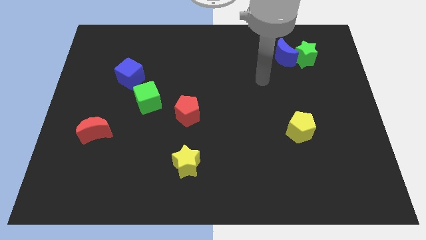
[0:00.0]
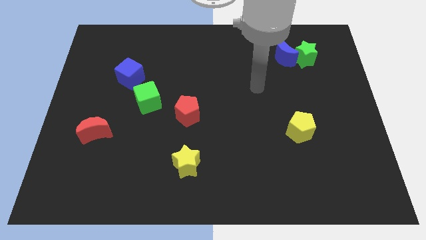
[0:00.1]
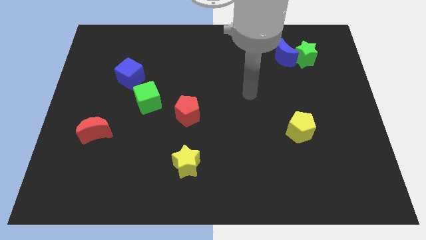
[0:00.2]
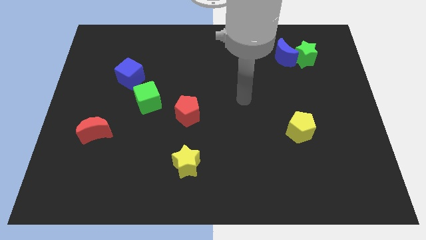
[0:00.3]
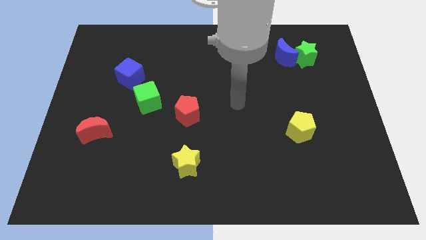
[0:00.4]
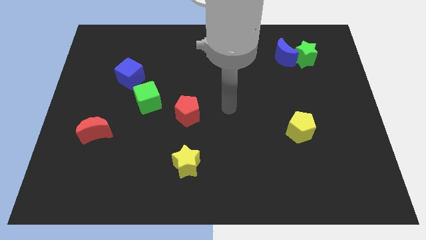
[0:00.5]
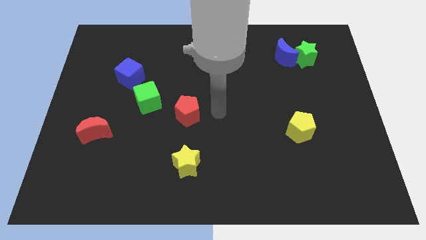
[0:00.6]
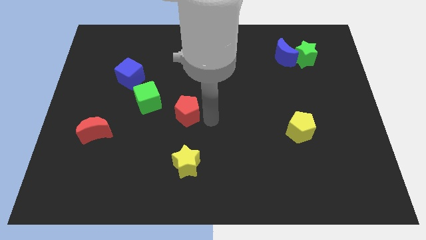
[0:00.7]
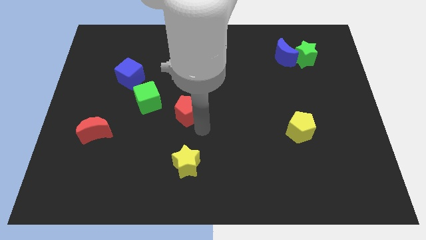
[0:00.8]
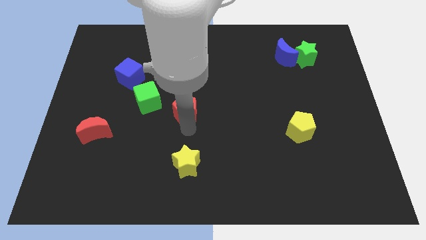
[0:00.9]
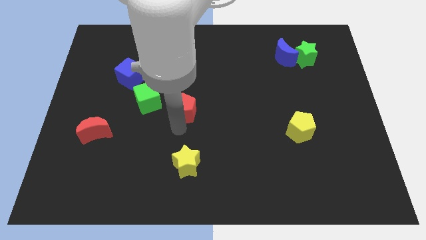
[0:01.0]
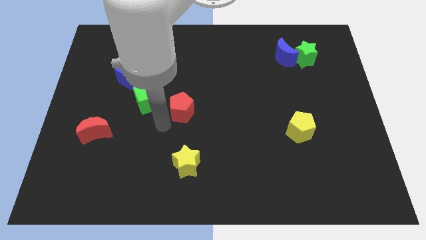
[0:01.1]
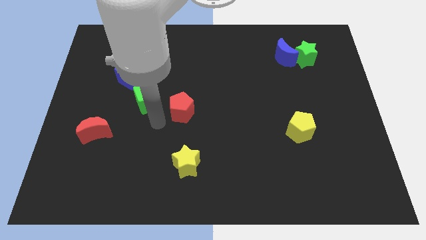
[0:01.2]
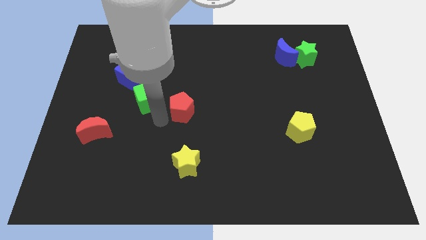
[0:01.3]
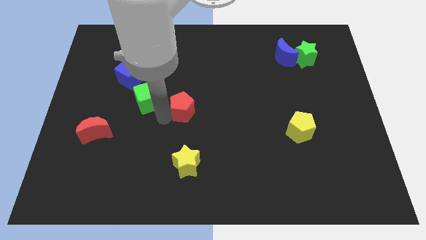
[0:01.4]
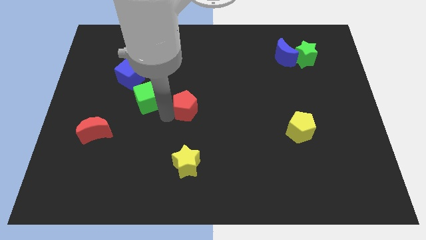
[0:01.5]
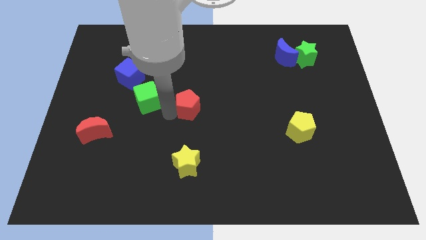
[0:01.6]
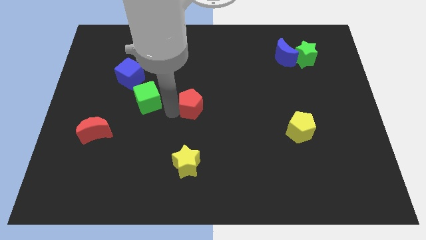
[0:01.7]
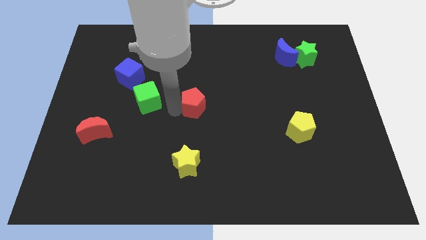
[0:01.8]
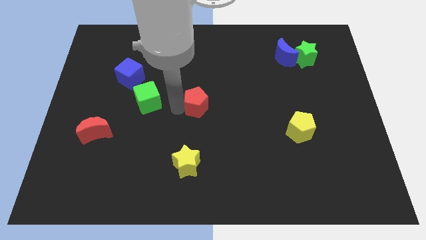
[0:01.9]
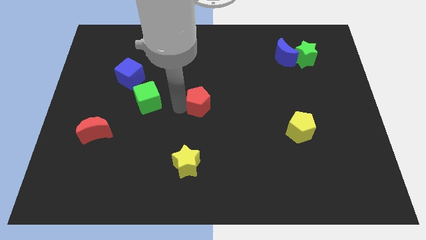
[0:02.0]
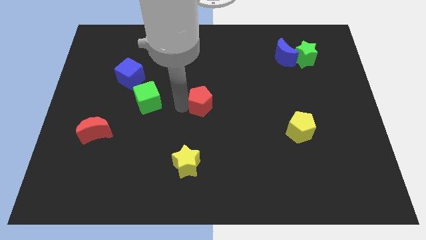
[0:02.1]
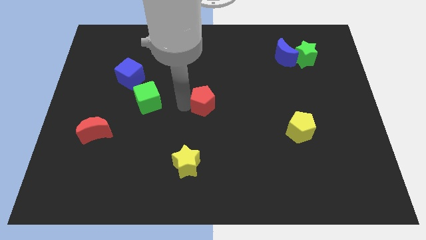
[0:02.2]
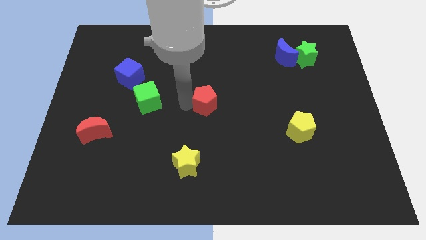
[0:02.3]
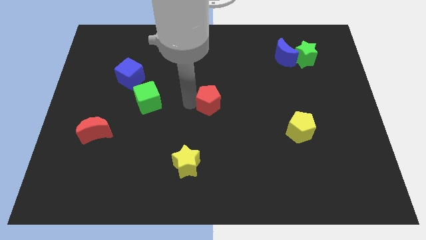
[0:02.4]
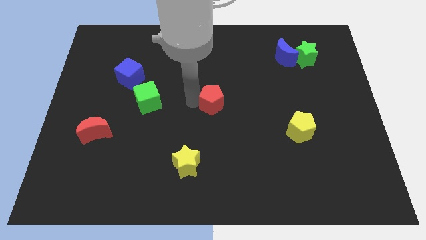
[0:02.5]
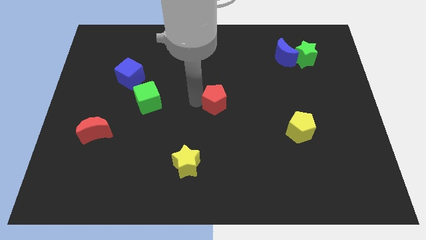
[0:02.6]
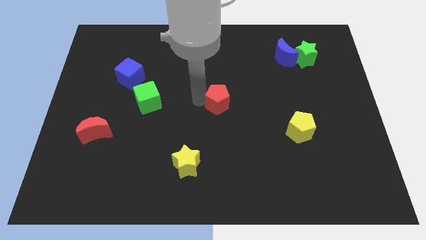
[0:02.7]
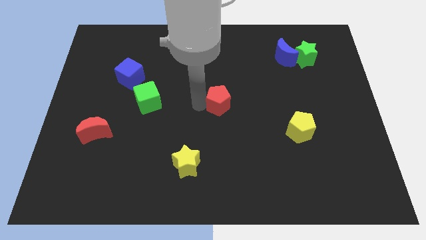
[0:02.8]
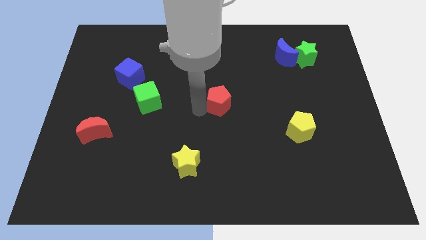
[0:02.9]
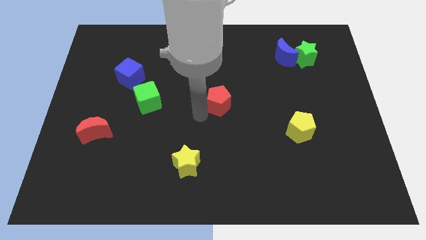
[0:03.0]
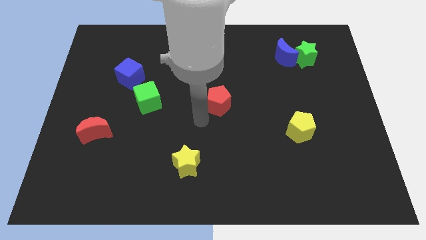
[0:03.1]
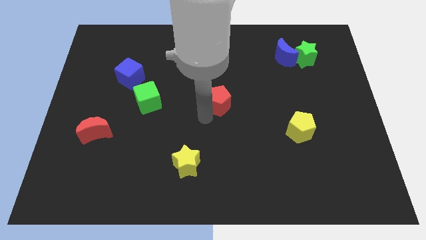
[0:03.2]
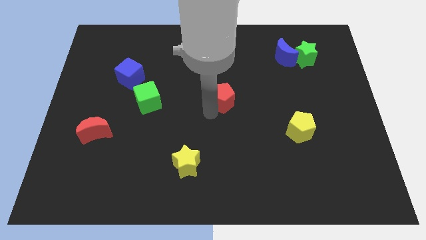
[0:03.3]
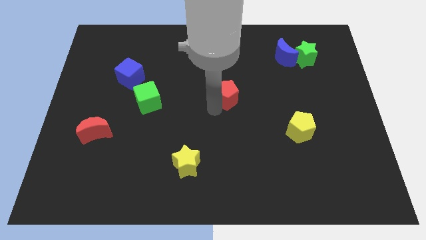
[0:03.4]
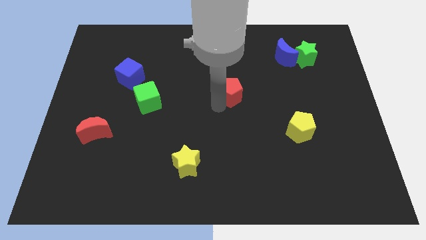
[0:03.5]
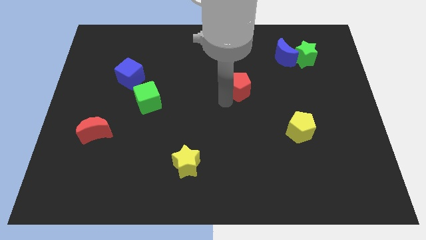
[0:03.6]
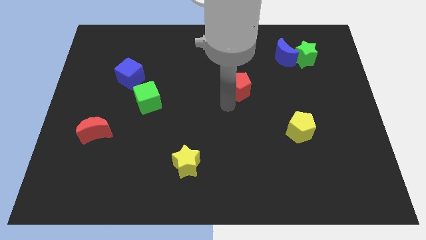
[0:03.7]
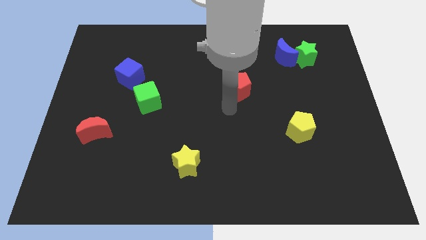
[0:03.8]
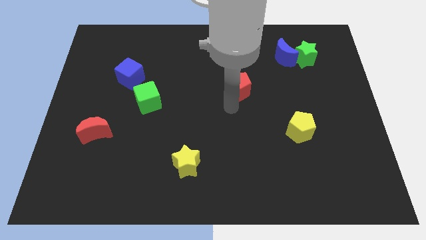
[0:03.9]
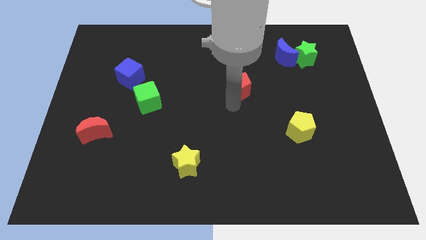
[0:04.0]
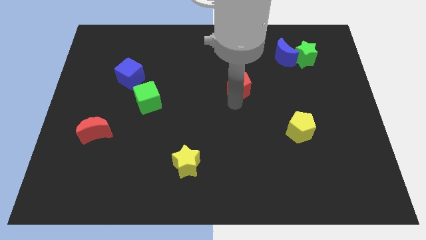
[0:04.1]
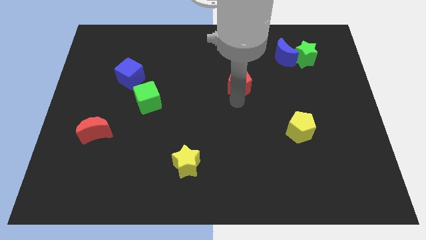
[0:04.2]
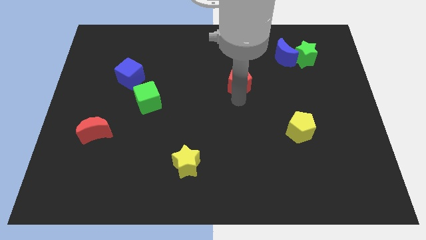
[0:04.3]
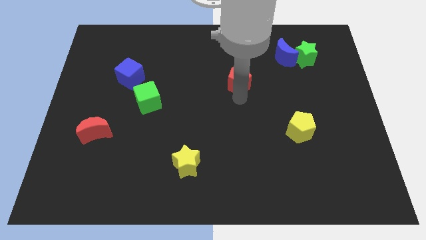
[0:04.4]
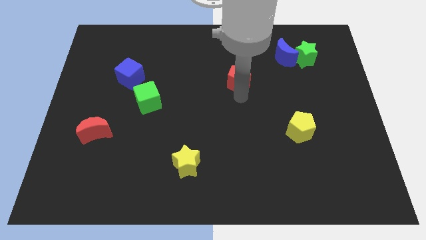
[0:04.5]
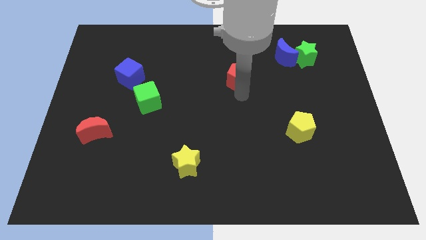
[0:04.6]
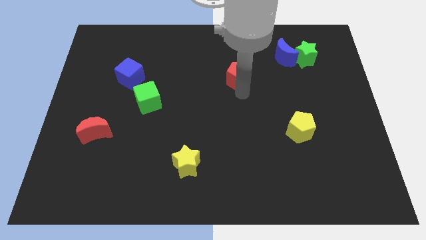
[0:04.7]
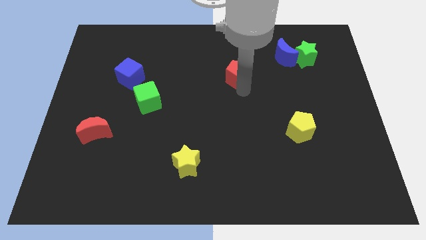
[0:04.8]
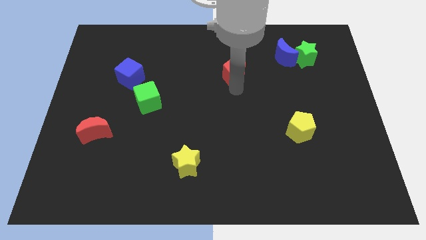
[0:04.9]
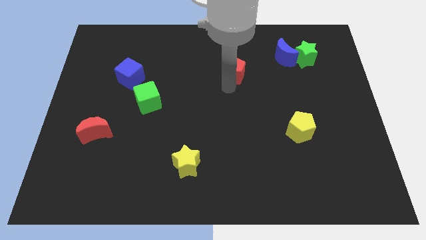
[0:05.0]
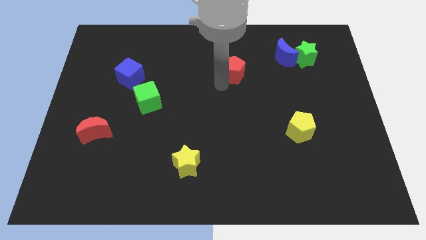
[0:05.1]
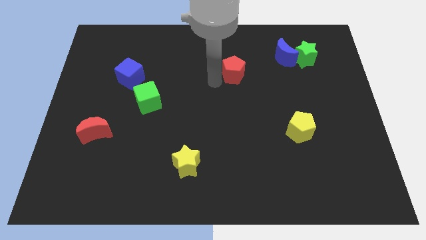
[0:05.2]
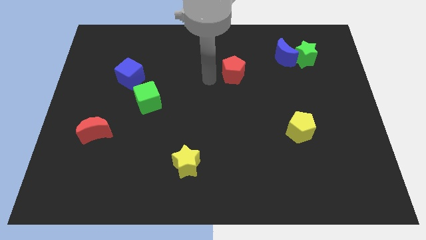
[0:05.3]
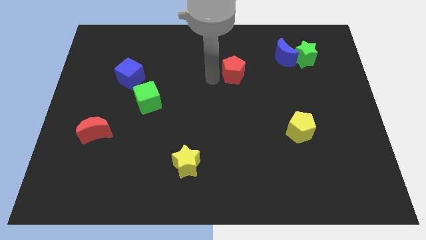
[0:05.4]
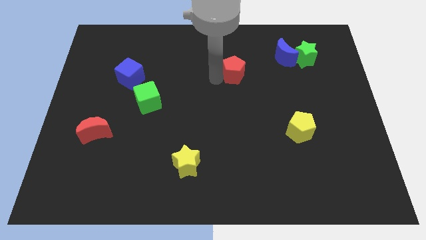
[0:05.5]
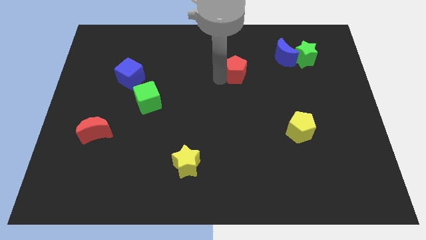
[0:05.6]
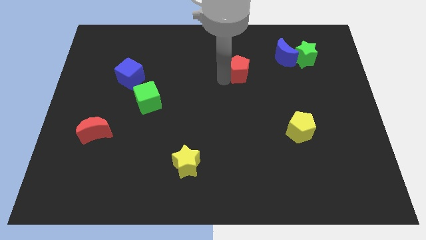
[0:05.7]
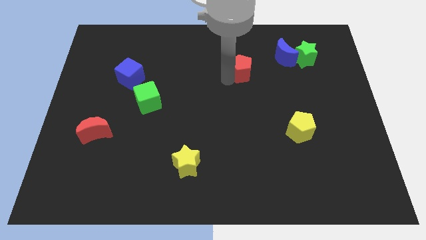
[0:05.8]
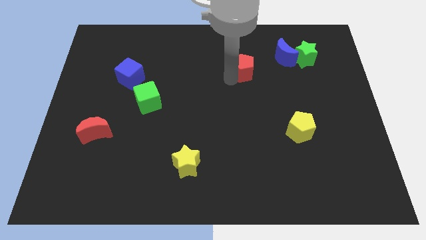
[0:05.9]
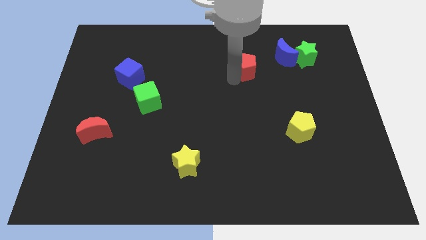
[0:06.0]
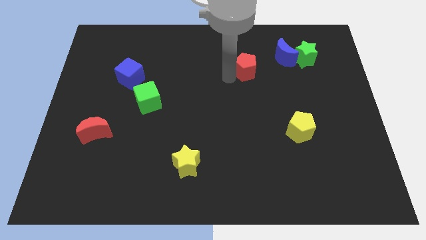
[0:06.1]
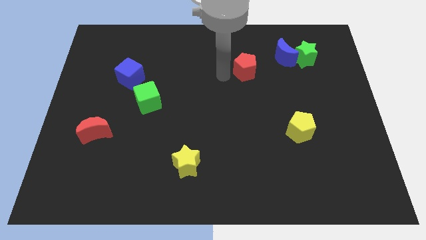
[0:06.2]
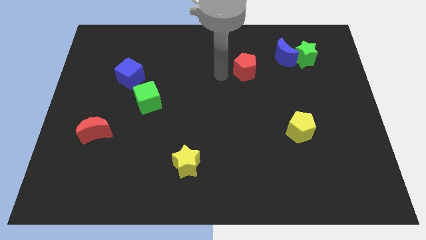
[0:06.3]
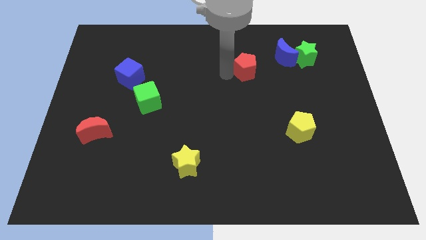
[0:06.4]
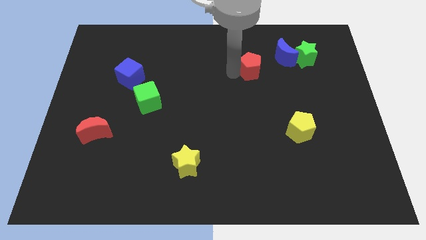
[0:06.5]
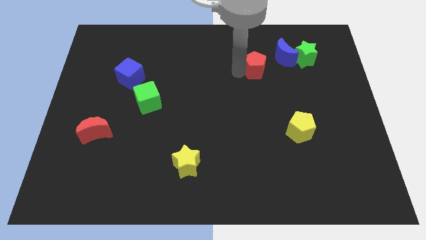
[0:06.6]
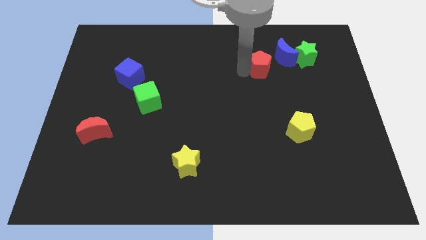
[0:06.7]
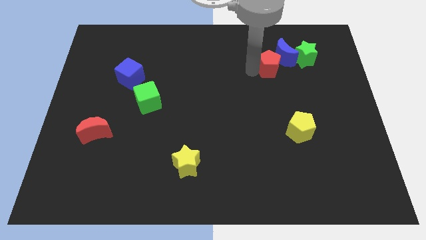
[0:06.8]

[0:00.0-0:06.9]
push the red pentagon to the blue moon

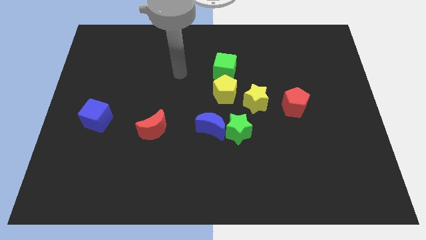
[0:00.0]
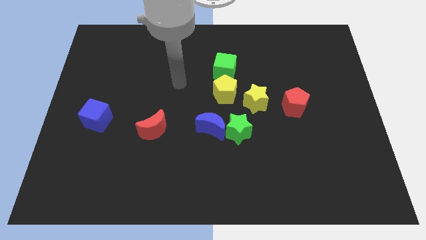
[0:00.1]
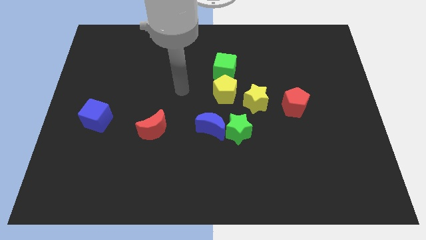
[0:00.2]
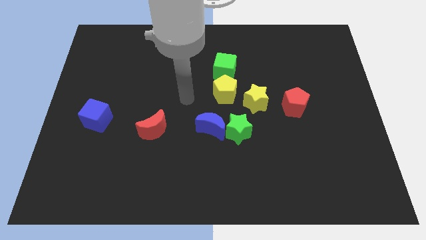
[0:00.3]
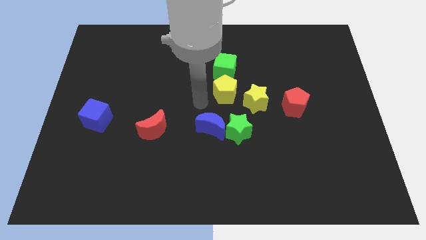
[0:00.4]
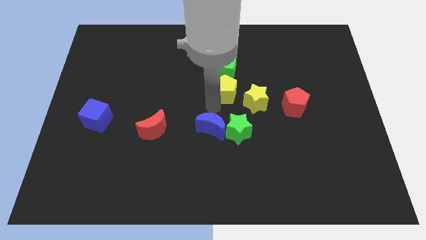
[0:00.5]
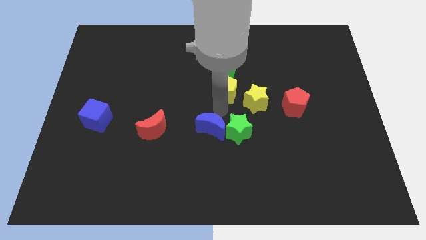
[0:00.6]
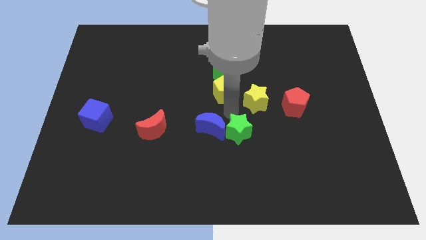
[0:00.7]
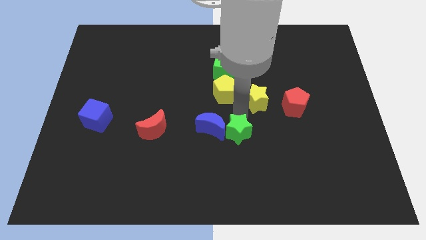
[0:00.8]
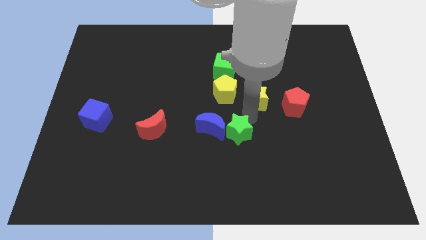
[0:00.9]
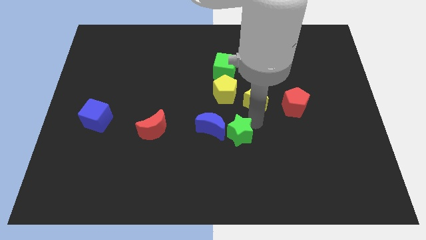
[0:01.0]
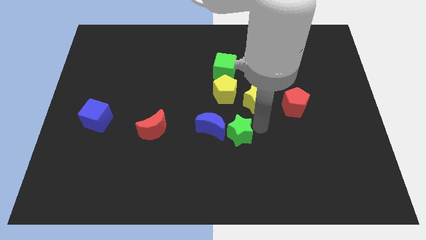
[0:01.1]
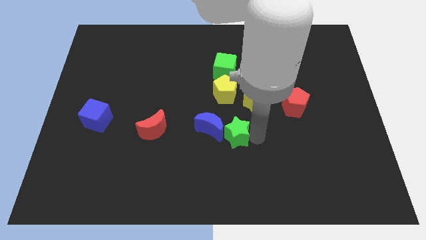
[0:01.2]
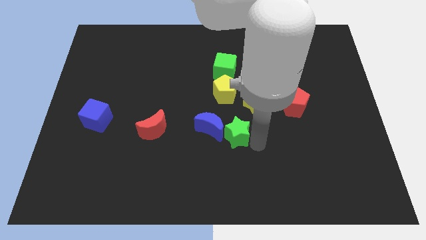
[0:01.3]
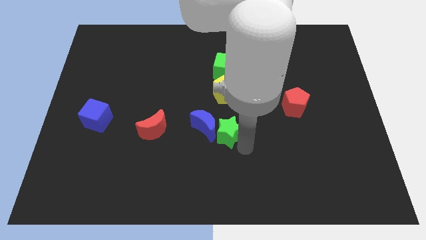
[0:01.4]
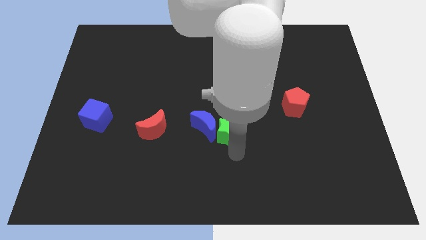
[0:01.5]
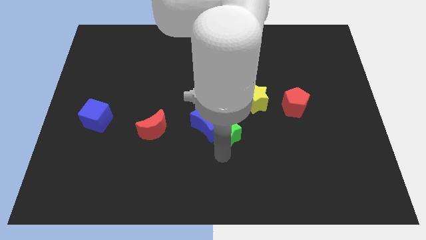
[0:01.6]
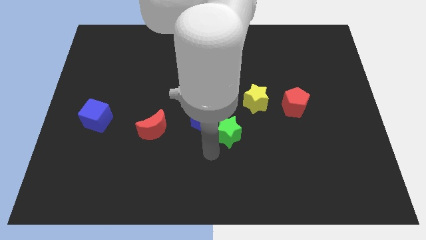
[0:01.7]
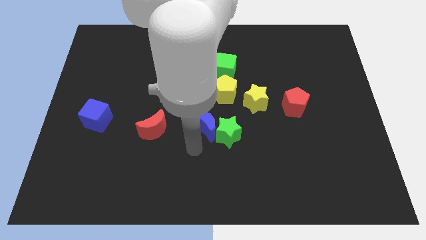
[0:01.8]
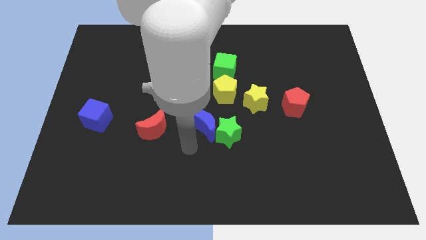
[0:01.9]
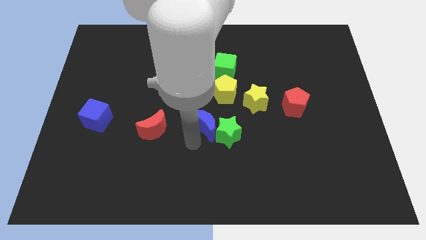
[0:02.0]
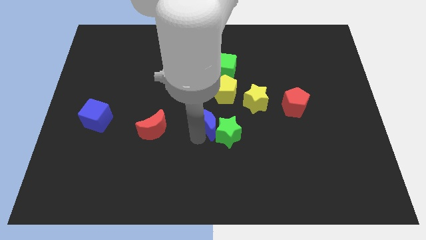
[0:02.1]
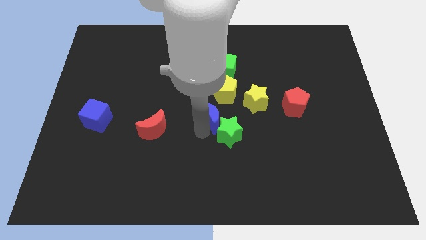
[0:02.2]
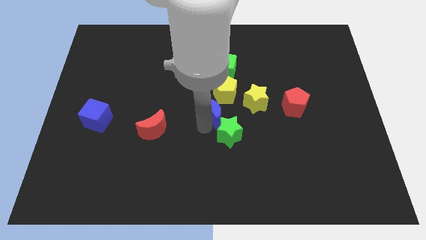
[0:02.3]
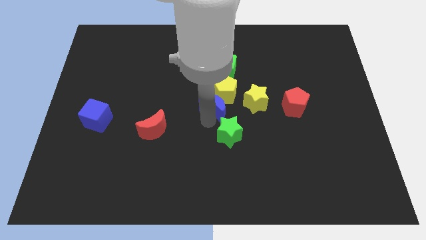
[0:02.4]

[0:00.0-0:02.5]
move the blue moon next to the yellow pentagon
